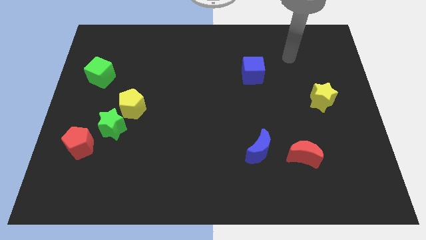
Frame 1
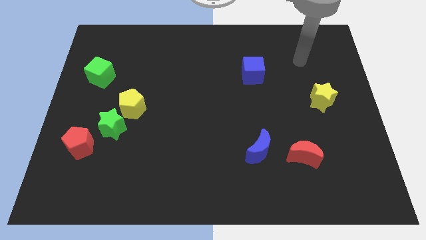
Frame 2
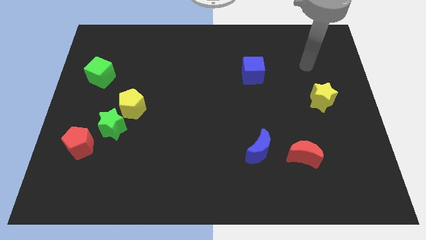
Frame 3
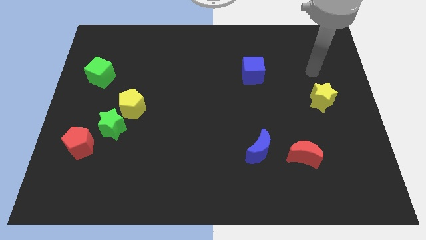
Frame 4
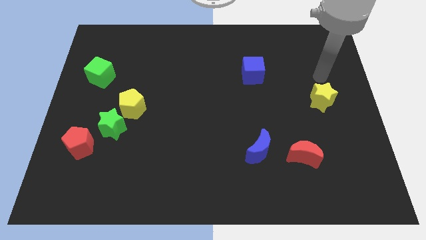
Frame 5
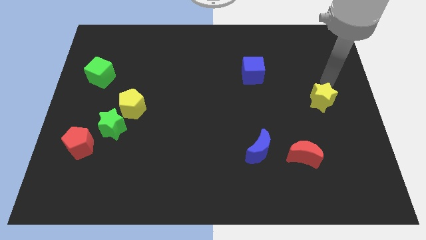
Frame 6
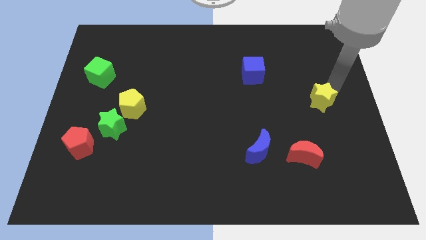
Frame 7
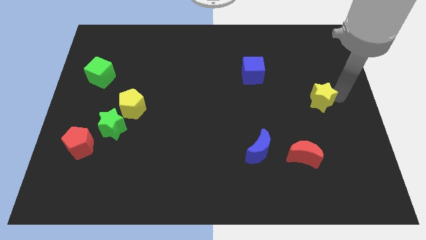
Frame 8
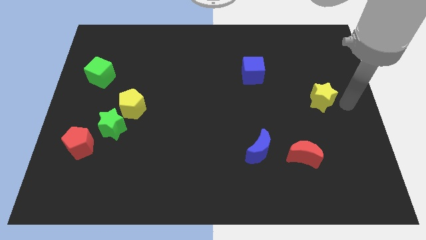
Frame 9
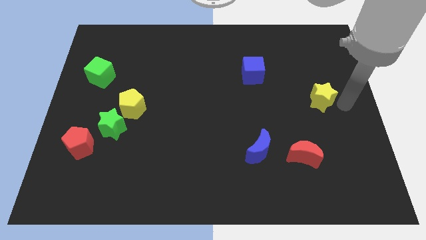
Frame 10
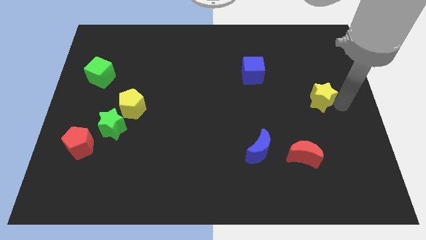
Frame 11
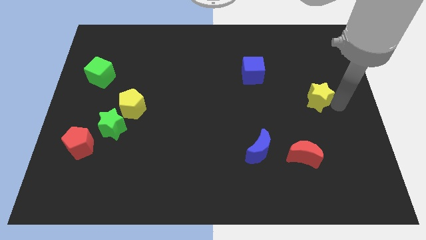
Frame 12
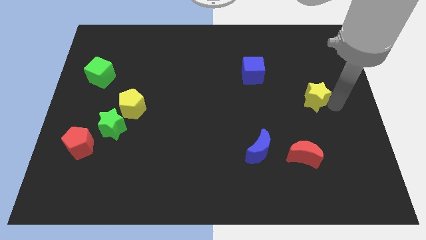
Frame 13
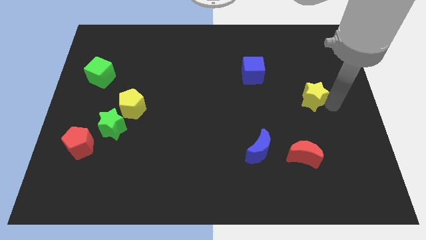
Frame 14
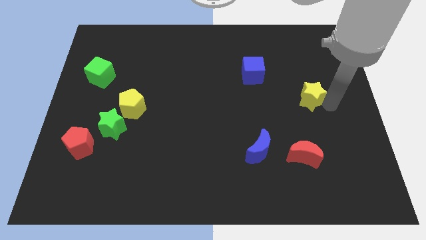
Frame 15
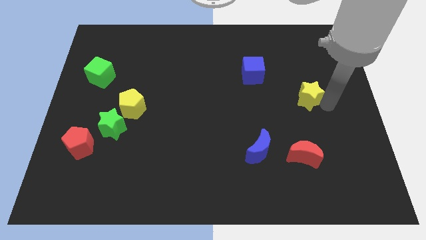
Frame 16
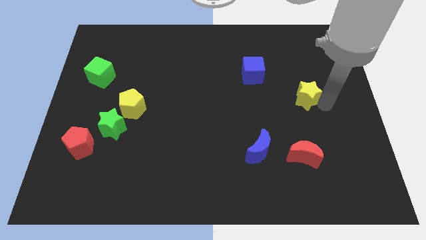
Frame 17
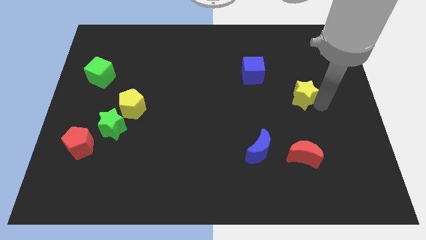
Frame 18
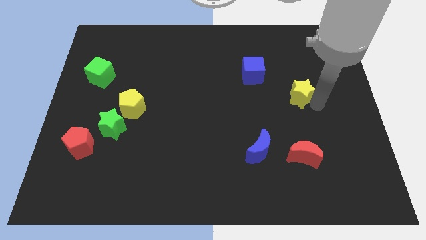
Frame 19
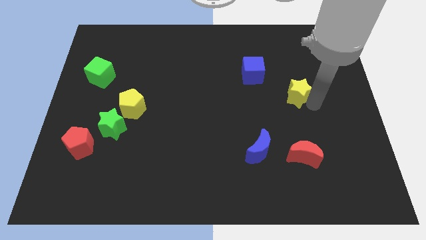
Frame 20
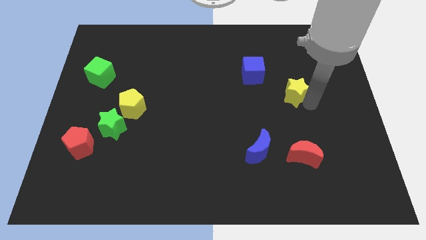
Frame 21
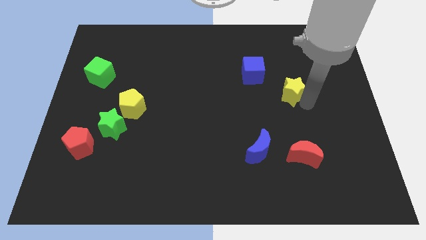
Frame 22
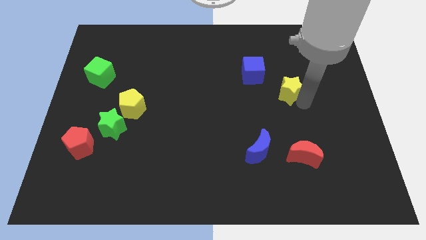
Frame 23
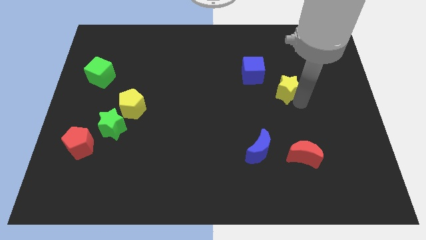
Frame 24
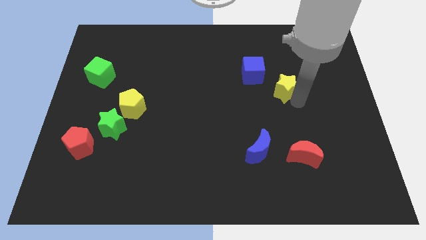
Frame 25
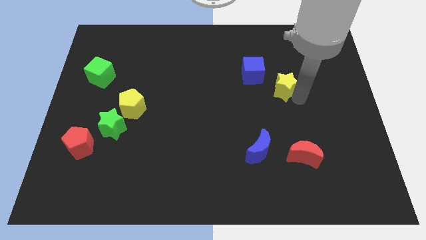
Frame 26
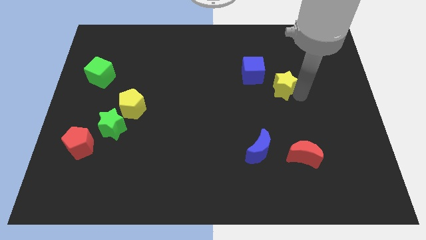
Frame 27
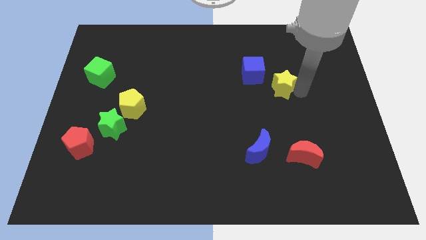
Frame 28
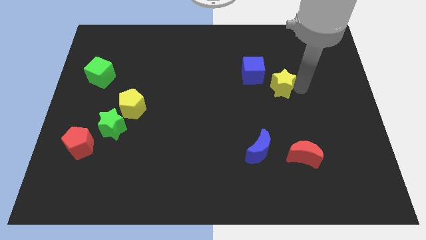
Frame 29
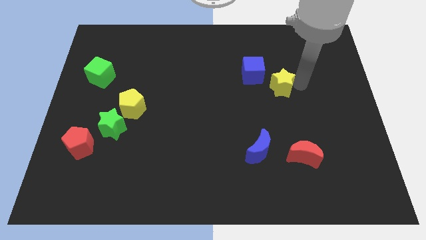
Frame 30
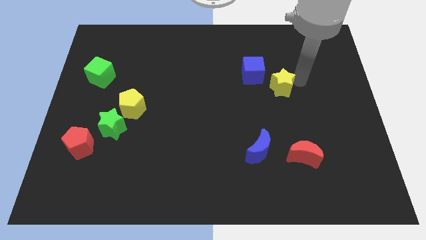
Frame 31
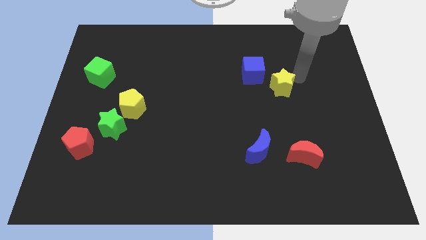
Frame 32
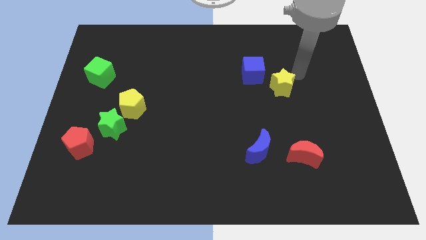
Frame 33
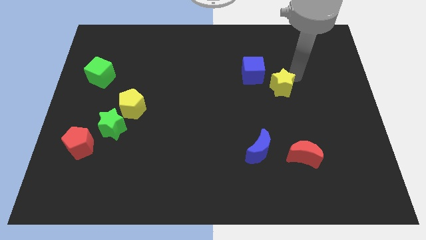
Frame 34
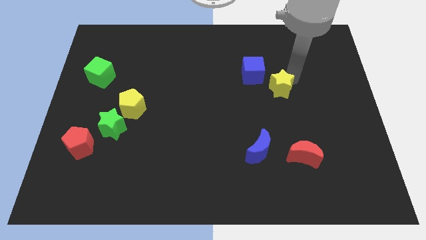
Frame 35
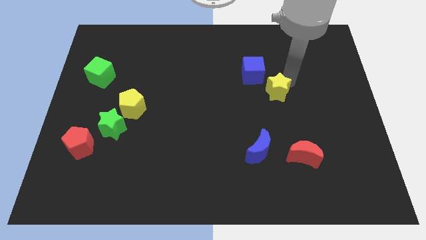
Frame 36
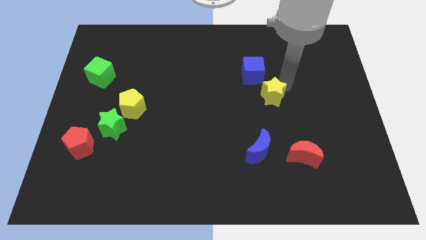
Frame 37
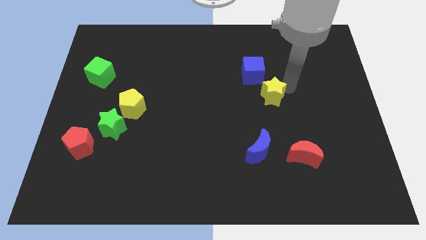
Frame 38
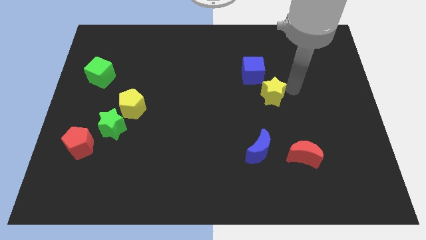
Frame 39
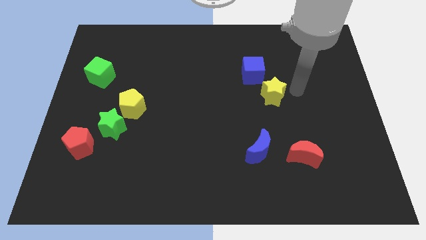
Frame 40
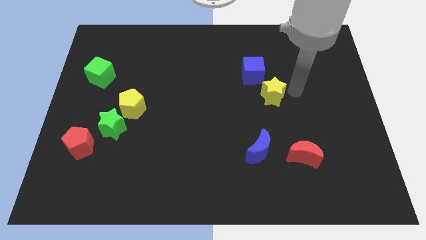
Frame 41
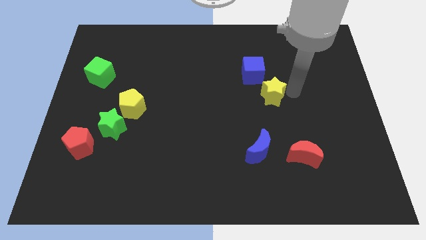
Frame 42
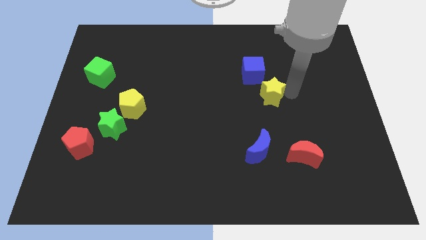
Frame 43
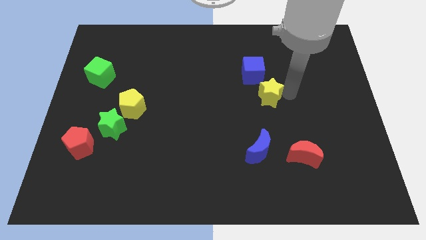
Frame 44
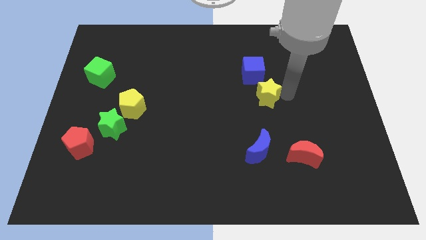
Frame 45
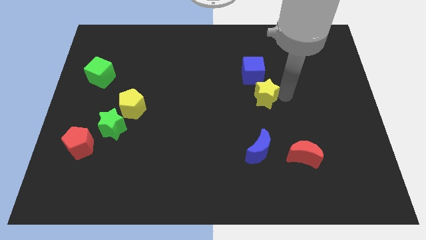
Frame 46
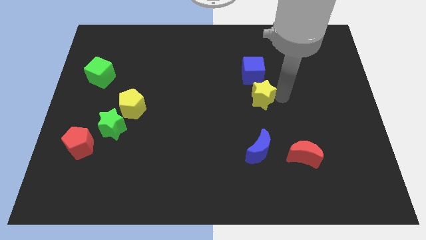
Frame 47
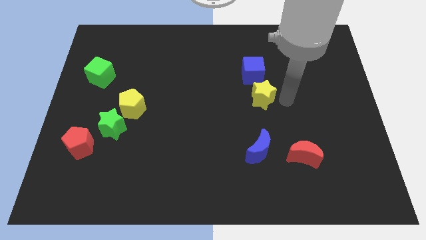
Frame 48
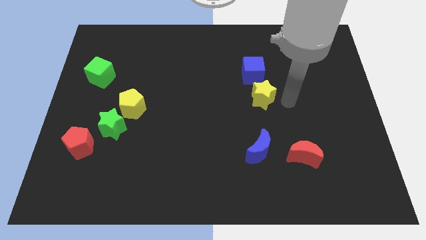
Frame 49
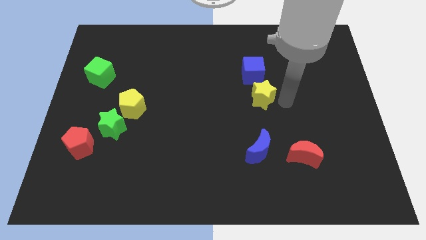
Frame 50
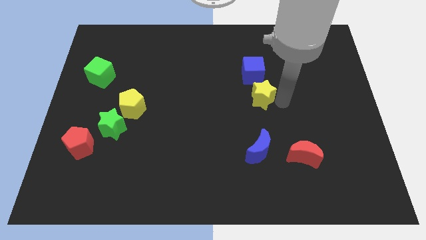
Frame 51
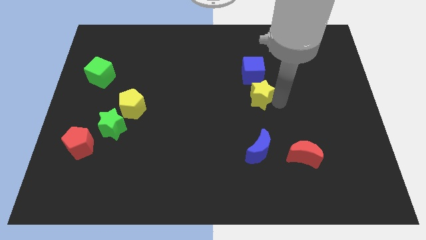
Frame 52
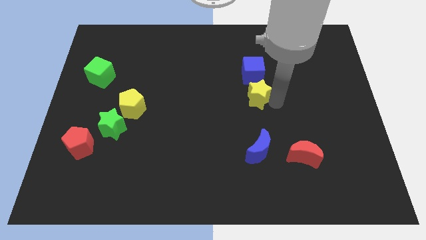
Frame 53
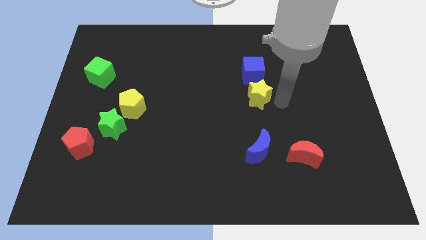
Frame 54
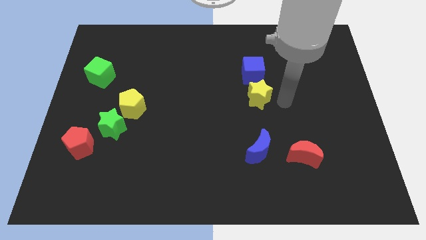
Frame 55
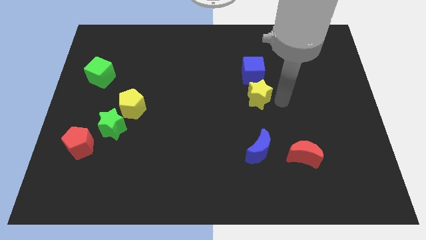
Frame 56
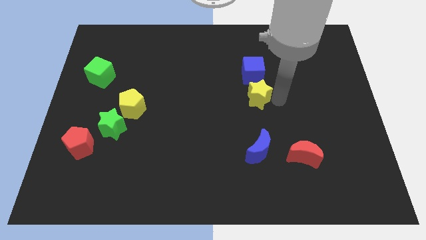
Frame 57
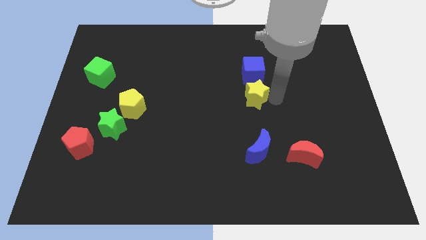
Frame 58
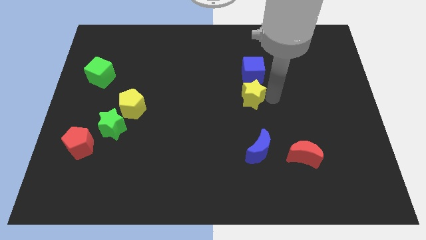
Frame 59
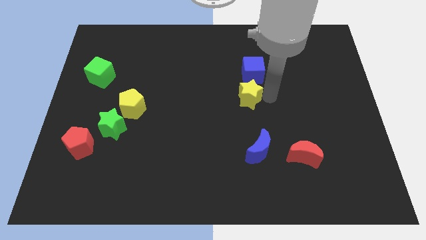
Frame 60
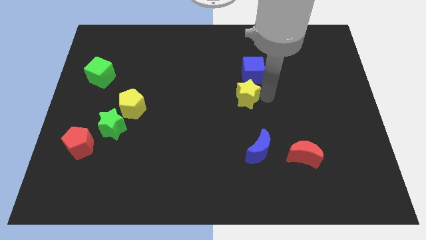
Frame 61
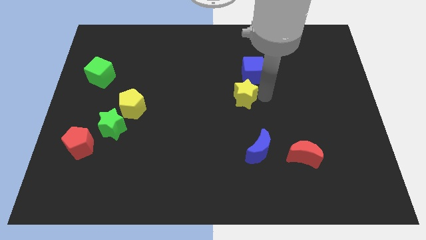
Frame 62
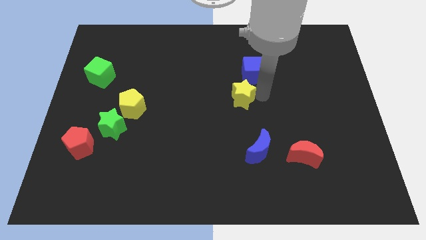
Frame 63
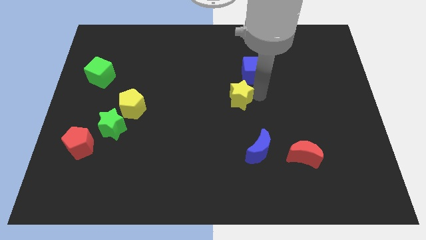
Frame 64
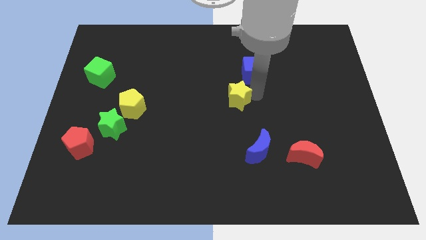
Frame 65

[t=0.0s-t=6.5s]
slide the yellow star to the left

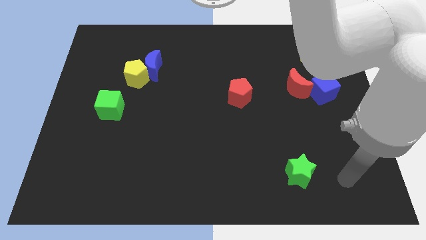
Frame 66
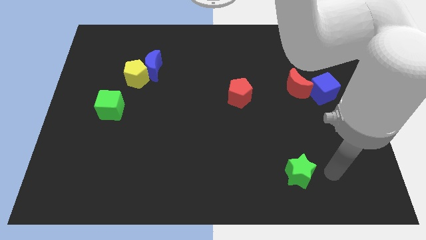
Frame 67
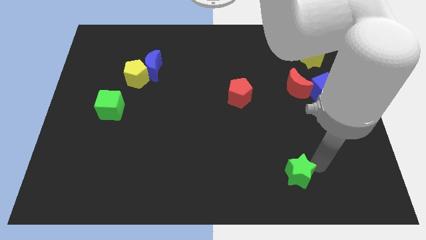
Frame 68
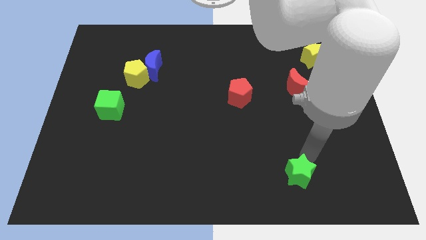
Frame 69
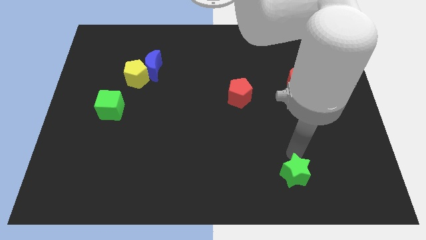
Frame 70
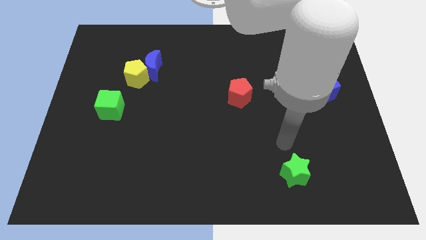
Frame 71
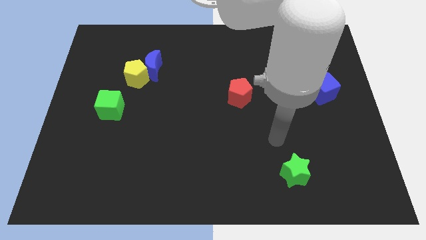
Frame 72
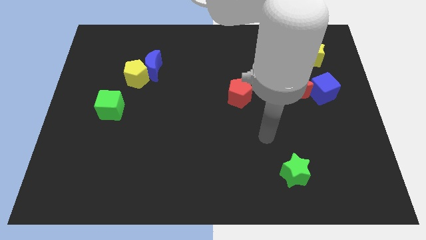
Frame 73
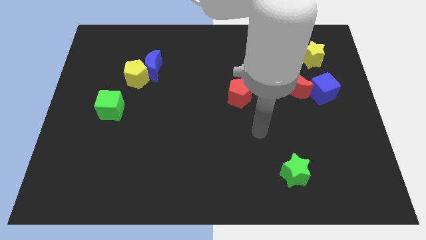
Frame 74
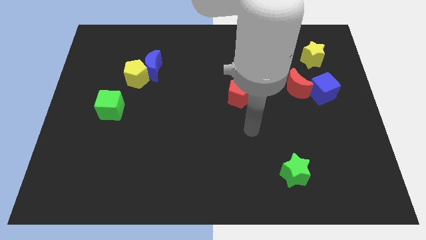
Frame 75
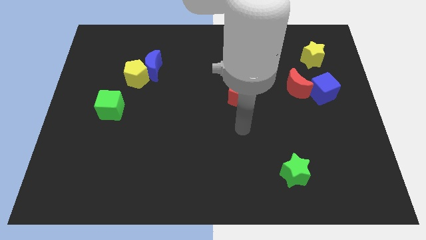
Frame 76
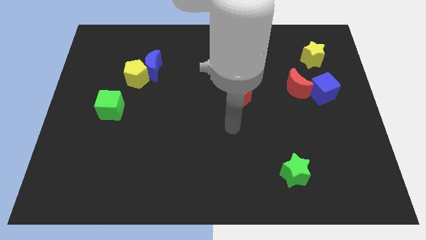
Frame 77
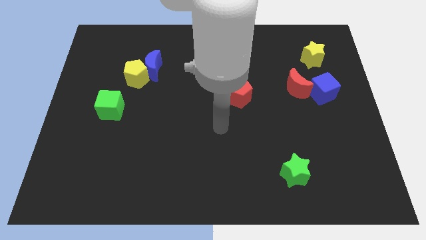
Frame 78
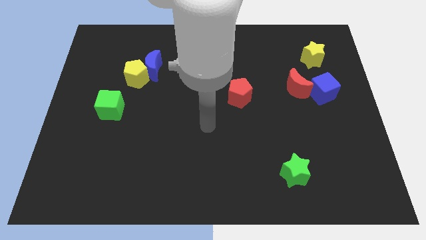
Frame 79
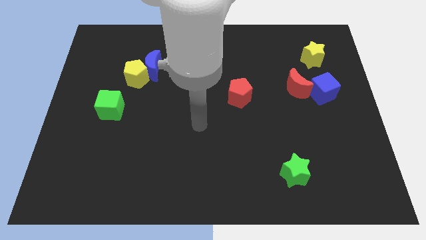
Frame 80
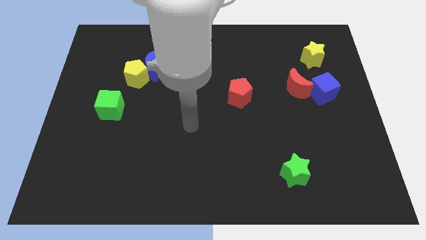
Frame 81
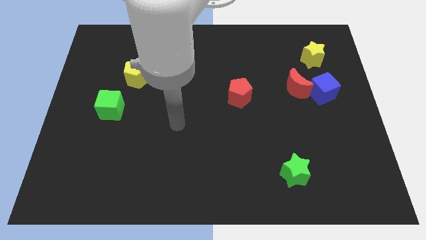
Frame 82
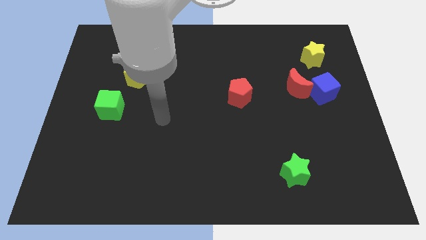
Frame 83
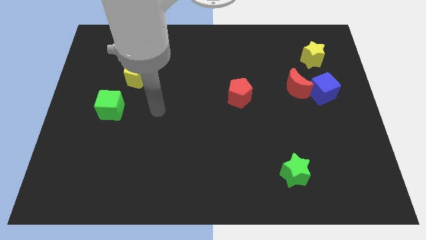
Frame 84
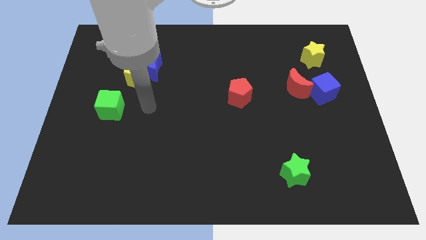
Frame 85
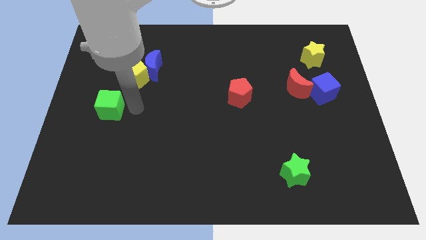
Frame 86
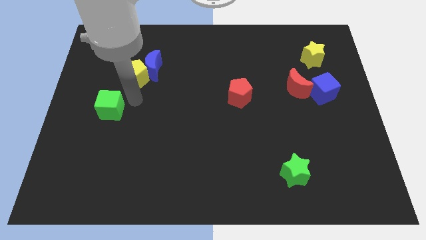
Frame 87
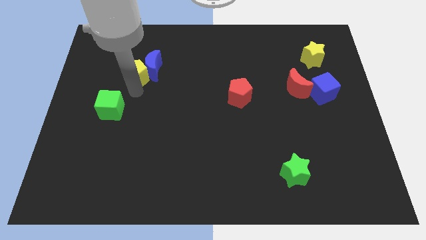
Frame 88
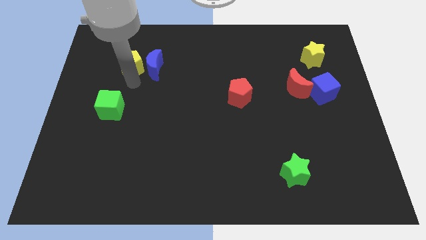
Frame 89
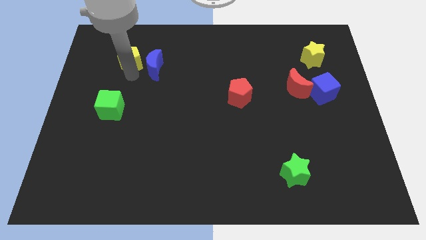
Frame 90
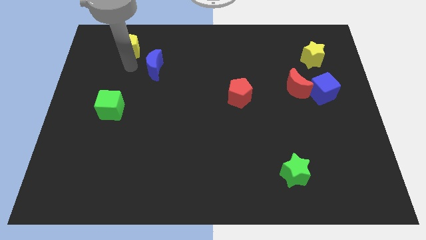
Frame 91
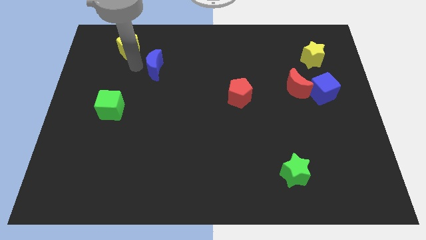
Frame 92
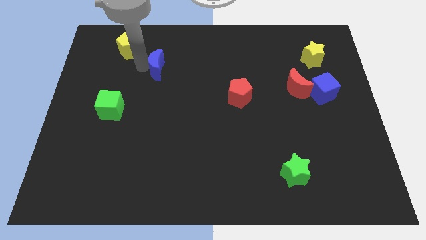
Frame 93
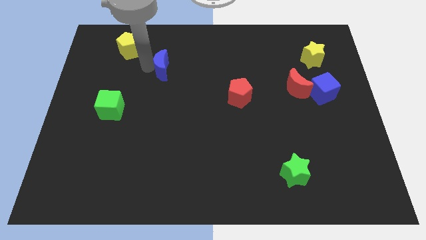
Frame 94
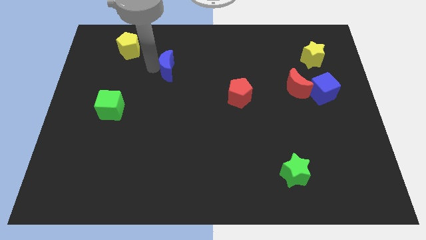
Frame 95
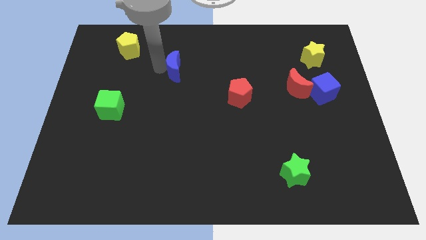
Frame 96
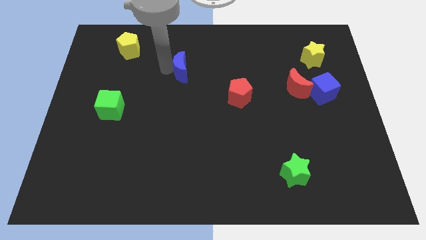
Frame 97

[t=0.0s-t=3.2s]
move the blue moon to the right a little bit
